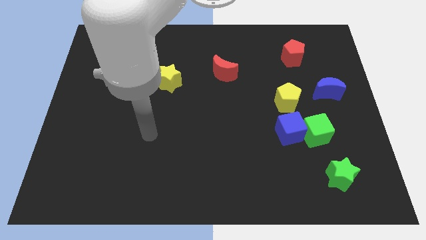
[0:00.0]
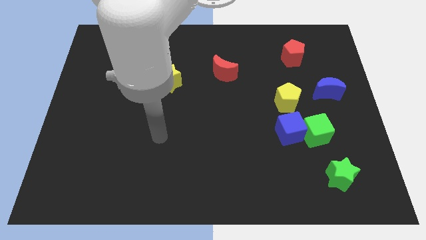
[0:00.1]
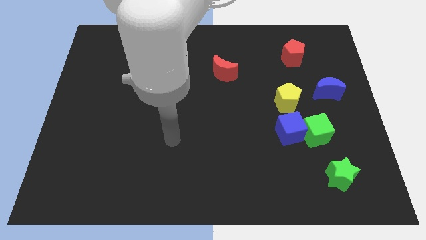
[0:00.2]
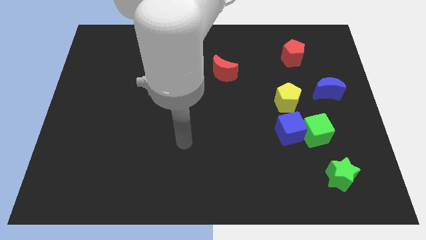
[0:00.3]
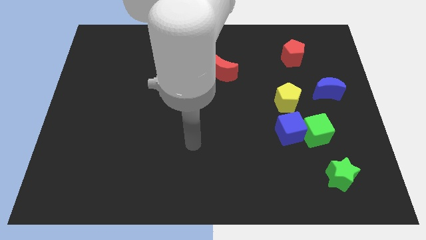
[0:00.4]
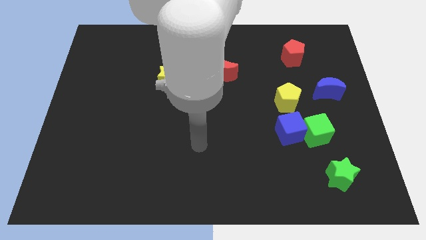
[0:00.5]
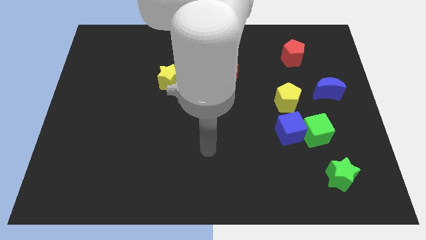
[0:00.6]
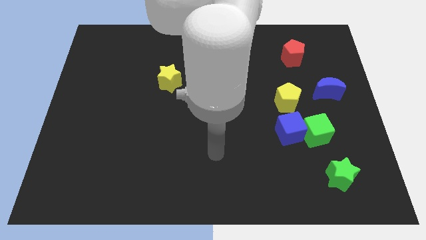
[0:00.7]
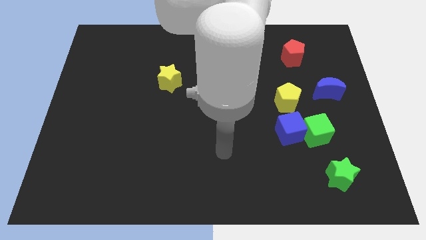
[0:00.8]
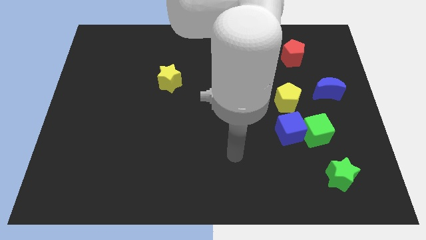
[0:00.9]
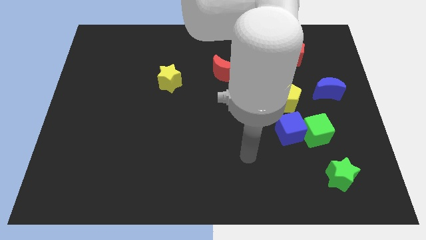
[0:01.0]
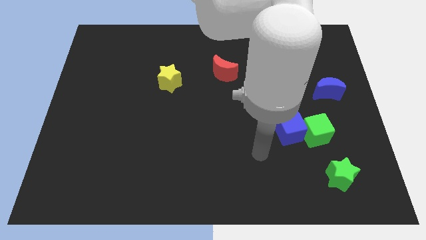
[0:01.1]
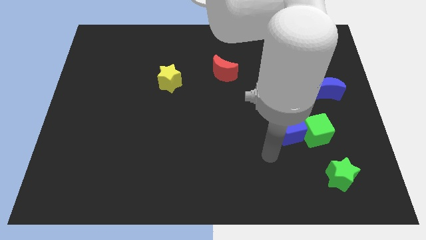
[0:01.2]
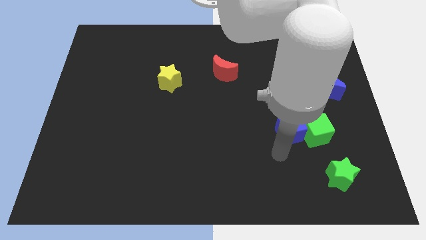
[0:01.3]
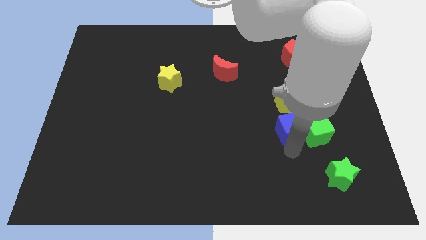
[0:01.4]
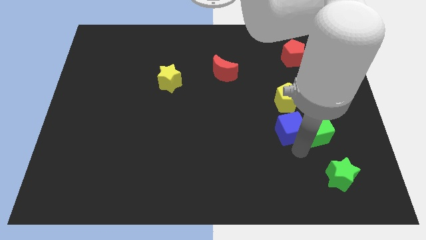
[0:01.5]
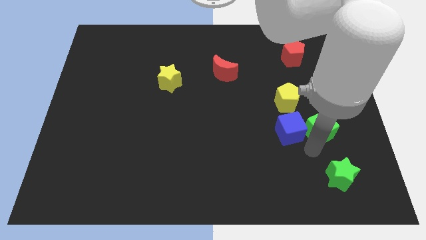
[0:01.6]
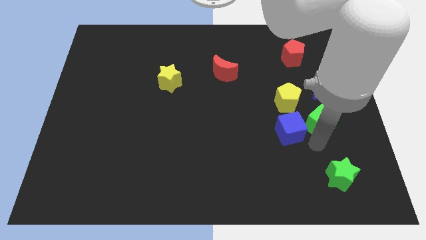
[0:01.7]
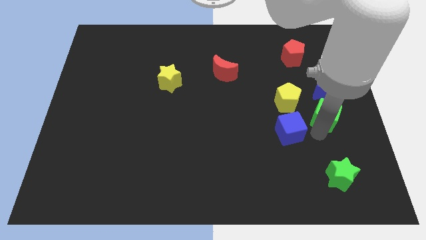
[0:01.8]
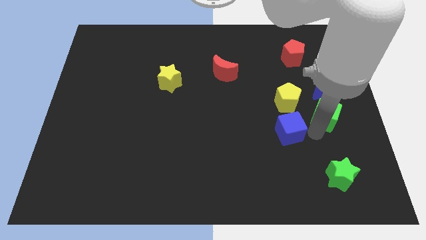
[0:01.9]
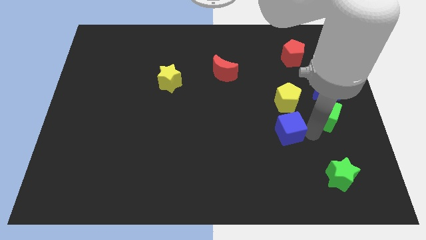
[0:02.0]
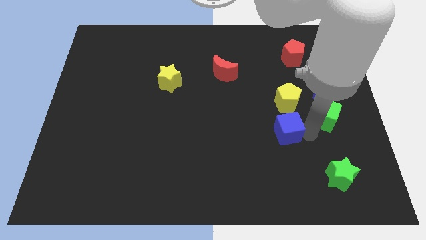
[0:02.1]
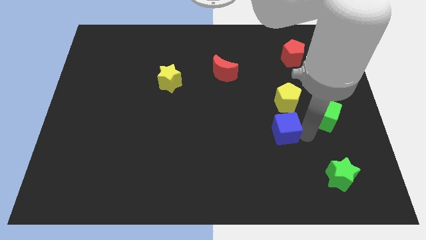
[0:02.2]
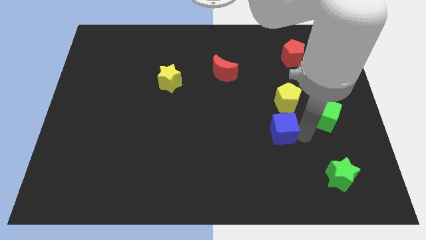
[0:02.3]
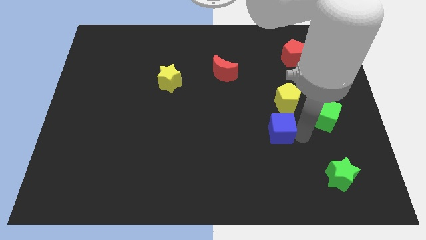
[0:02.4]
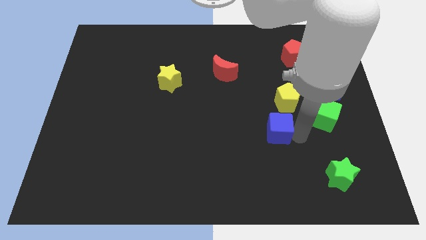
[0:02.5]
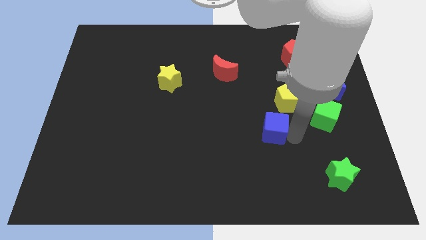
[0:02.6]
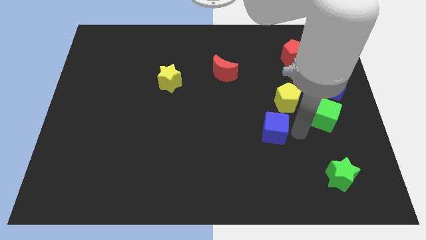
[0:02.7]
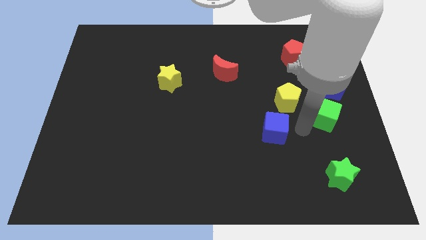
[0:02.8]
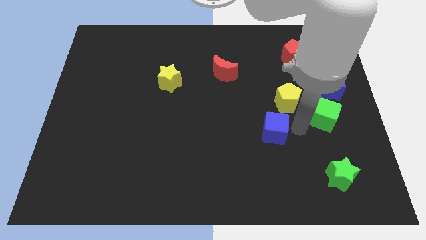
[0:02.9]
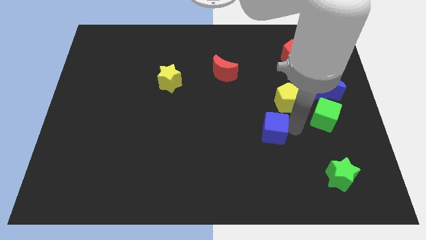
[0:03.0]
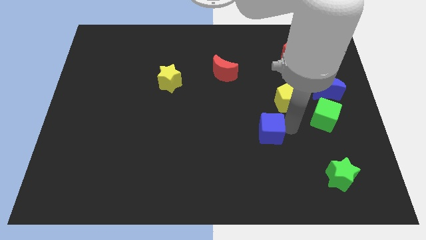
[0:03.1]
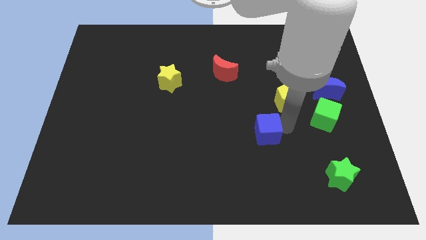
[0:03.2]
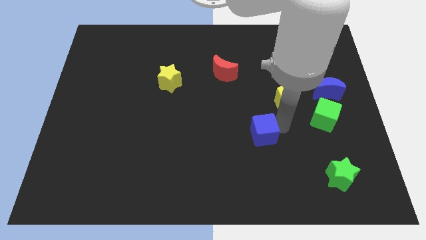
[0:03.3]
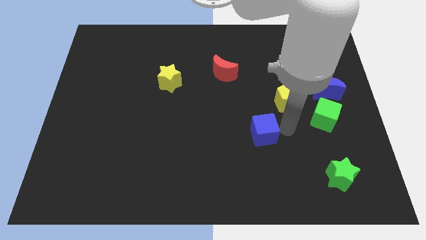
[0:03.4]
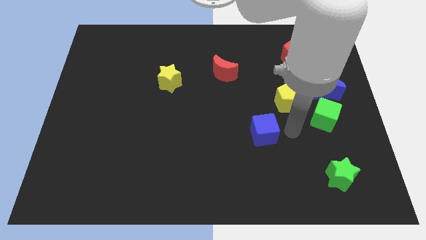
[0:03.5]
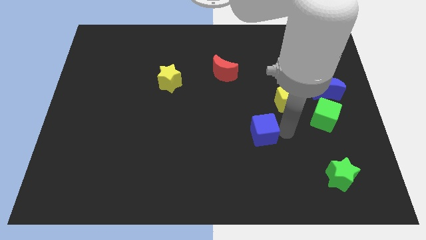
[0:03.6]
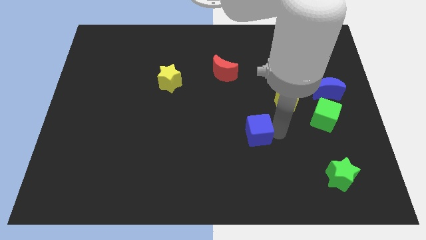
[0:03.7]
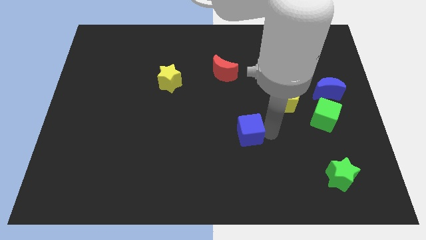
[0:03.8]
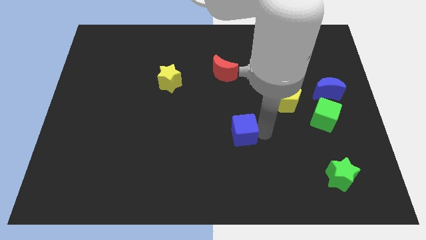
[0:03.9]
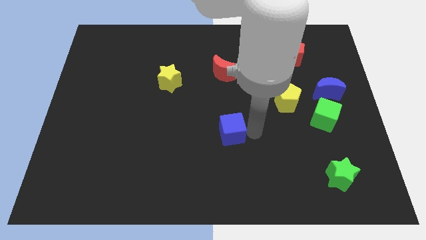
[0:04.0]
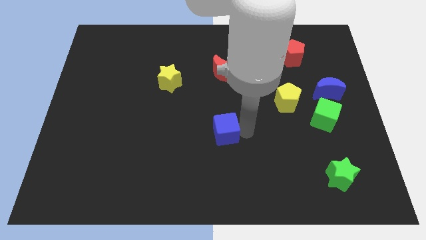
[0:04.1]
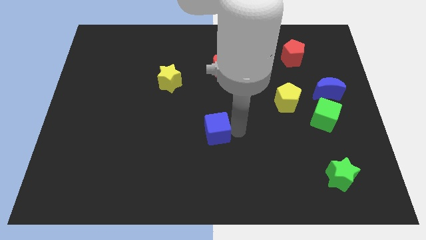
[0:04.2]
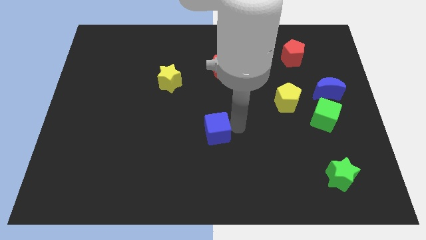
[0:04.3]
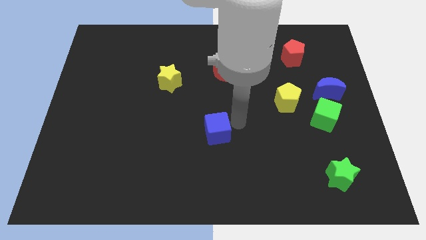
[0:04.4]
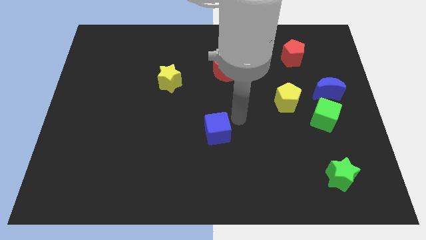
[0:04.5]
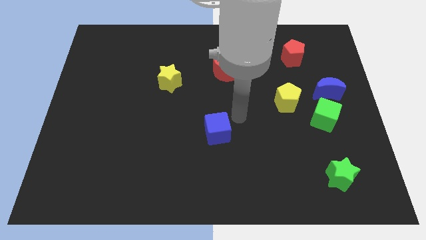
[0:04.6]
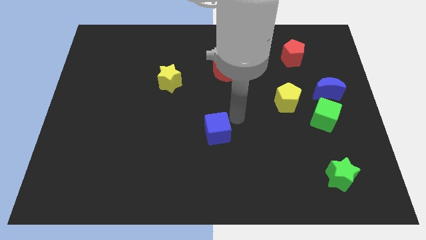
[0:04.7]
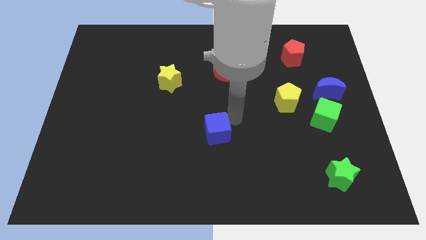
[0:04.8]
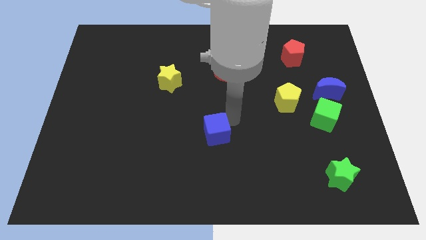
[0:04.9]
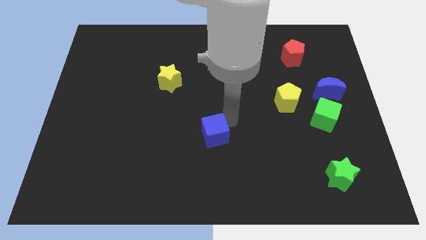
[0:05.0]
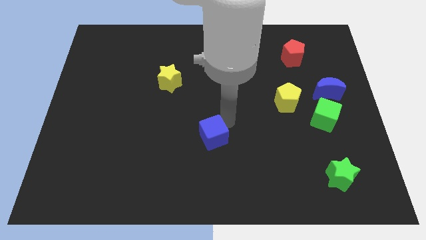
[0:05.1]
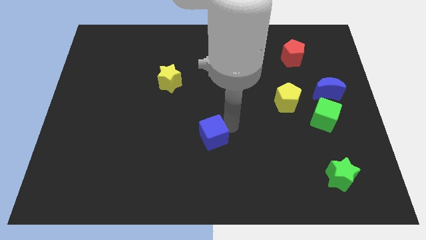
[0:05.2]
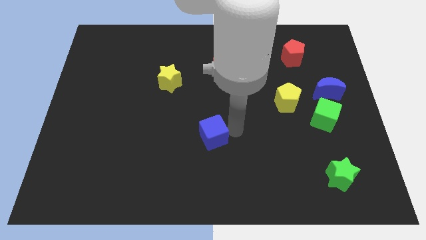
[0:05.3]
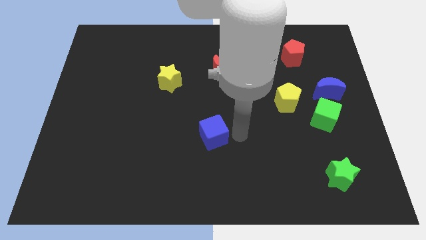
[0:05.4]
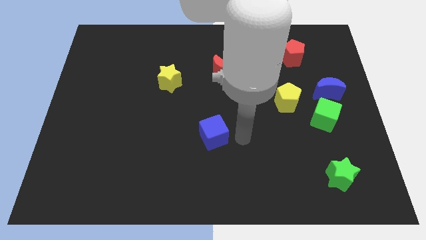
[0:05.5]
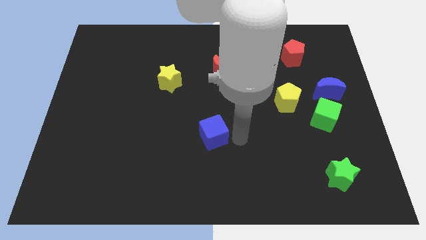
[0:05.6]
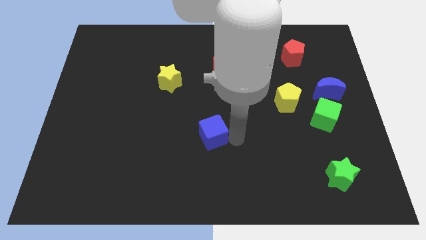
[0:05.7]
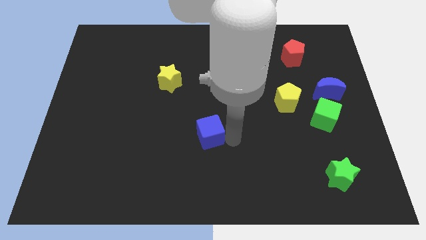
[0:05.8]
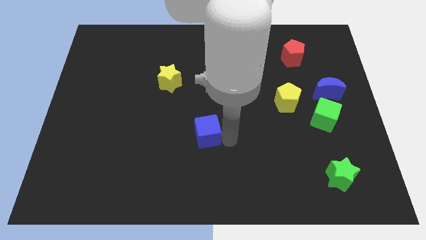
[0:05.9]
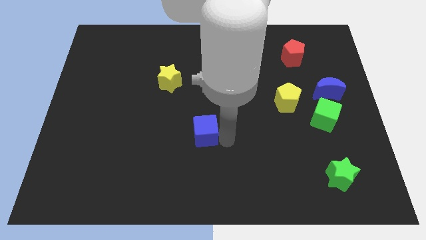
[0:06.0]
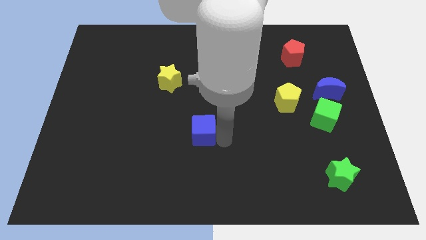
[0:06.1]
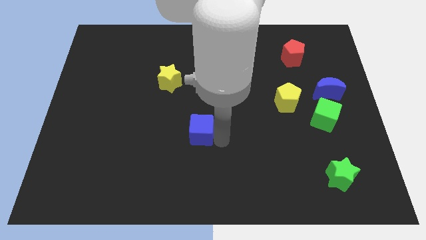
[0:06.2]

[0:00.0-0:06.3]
push the blue cube left

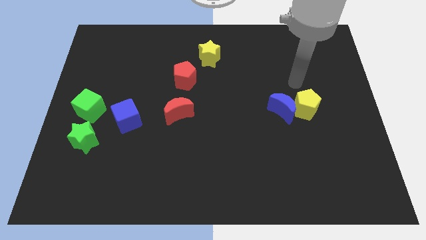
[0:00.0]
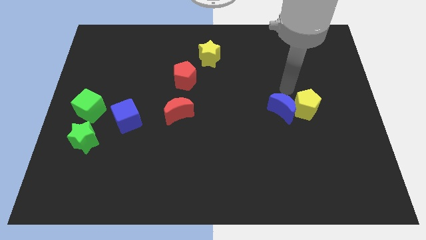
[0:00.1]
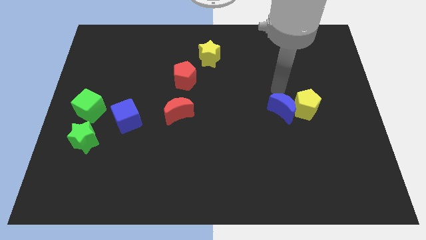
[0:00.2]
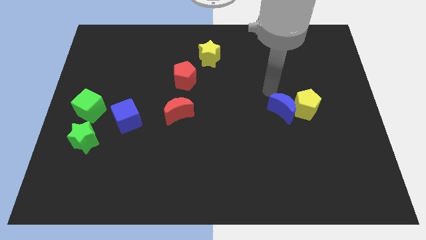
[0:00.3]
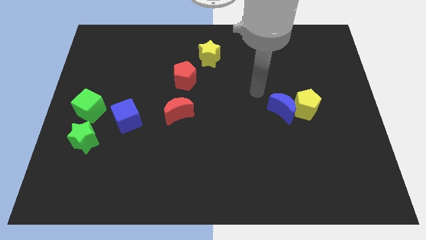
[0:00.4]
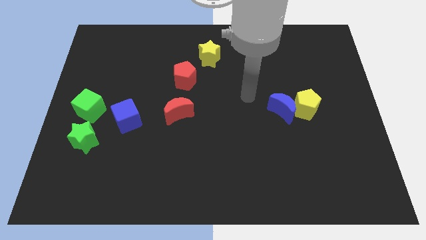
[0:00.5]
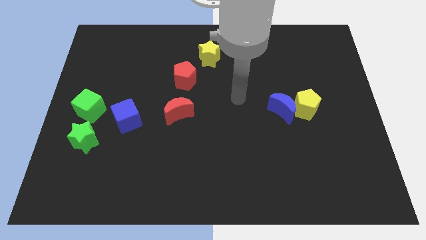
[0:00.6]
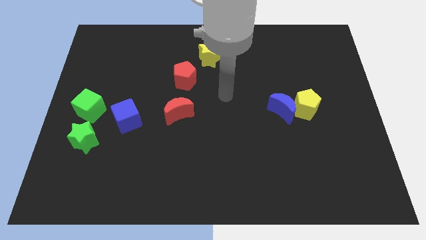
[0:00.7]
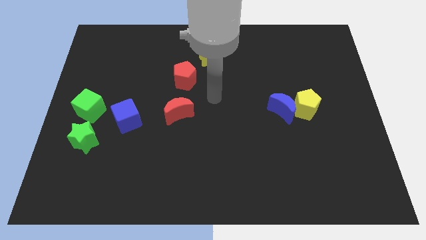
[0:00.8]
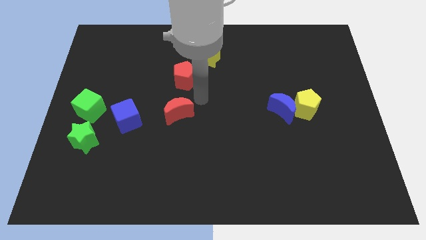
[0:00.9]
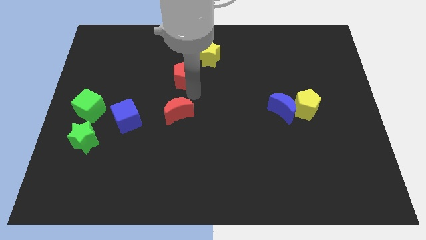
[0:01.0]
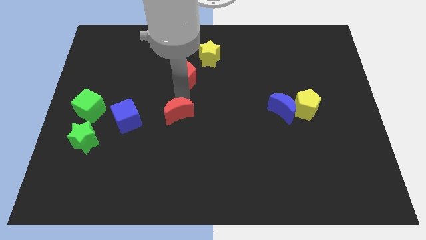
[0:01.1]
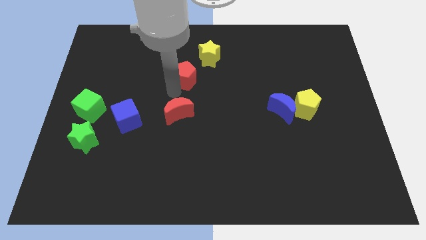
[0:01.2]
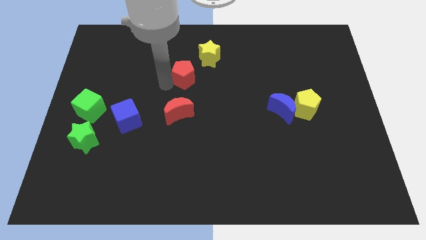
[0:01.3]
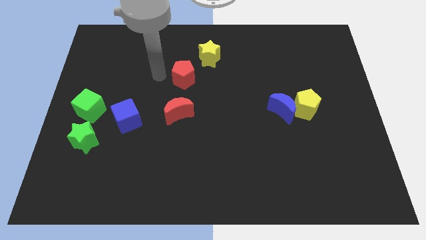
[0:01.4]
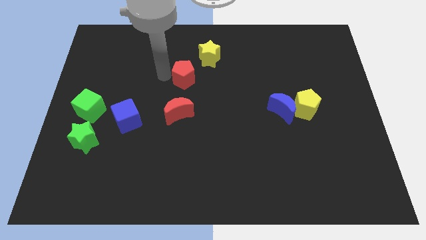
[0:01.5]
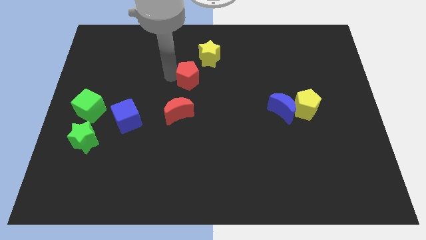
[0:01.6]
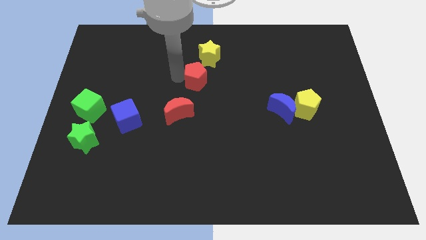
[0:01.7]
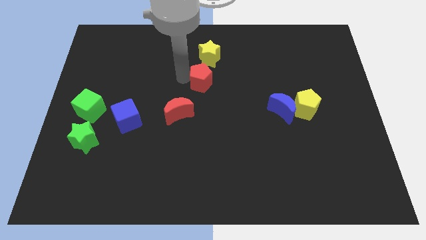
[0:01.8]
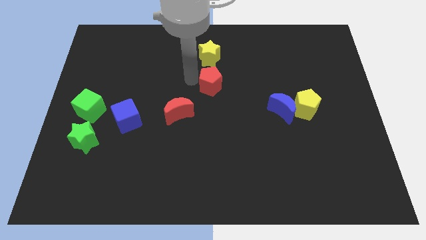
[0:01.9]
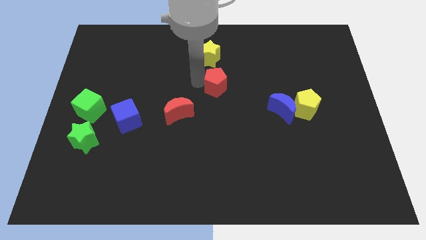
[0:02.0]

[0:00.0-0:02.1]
push the red pentagon a bit to the right
